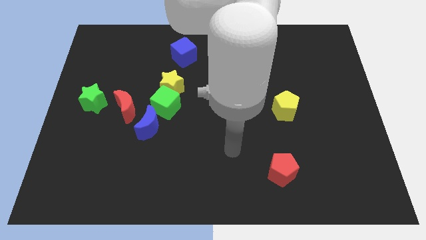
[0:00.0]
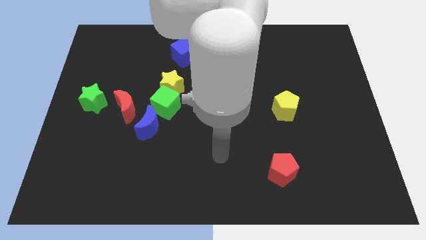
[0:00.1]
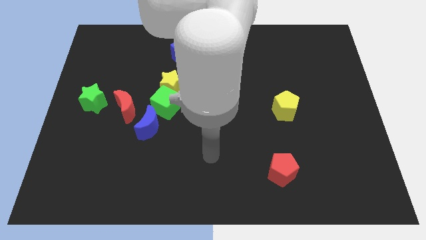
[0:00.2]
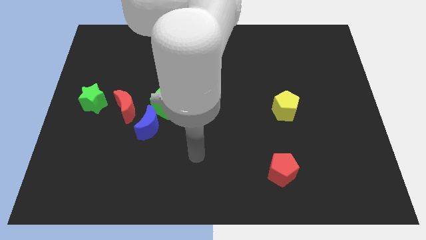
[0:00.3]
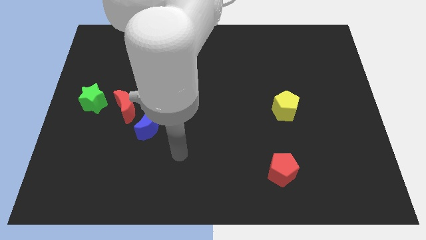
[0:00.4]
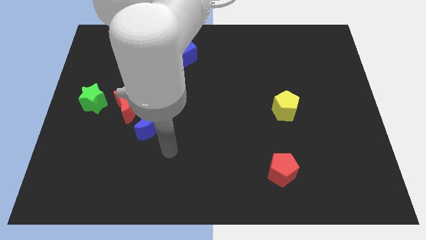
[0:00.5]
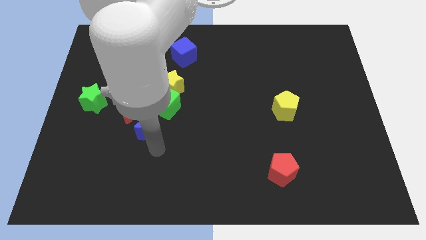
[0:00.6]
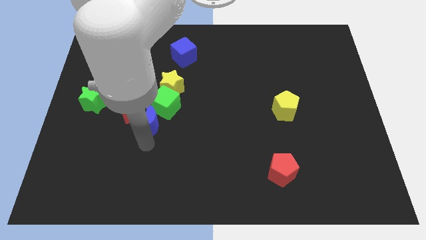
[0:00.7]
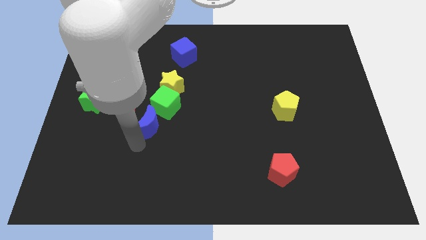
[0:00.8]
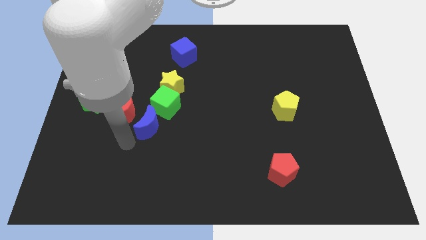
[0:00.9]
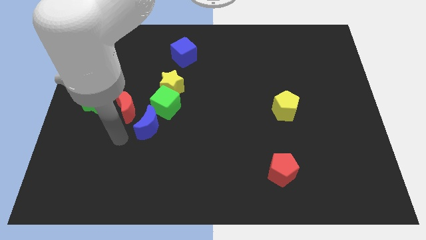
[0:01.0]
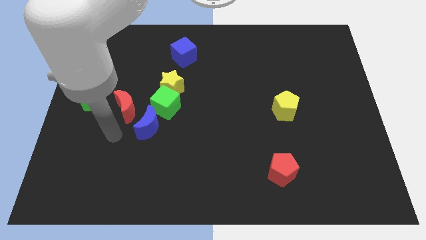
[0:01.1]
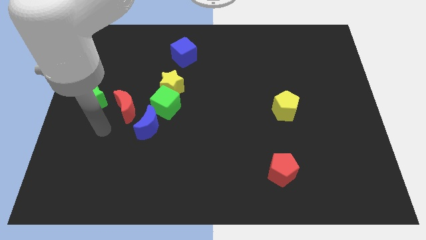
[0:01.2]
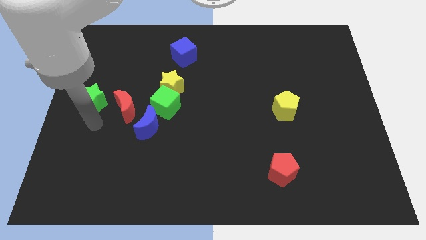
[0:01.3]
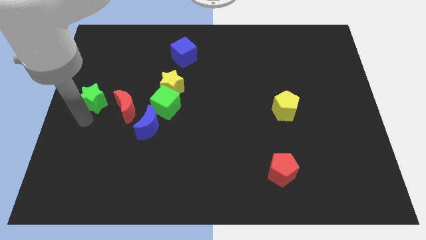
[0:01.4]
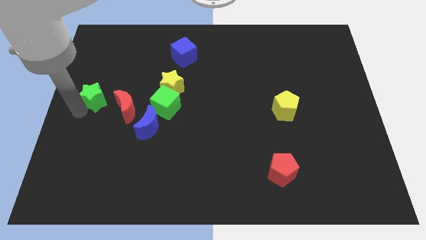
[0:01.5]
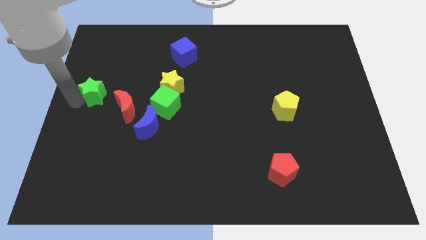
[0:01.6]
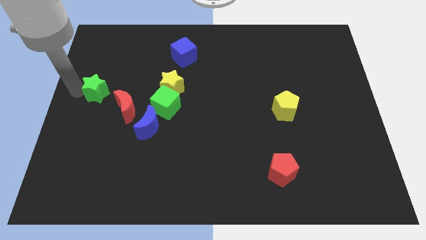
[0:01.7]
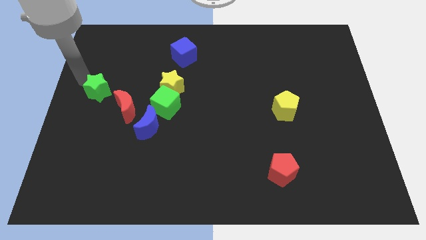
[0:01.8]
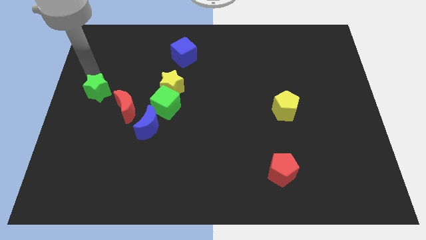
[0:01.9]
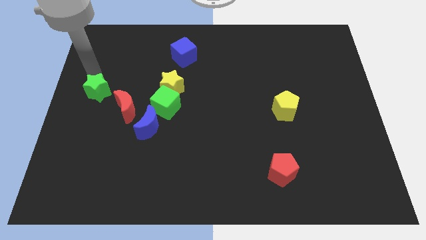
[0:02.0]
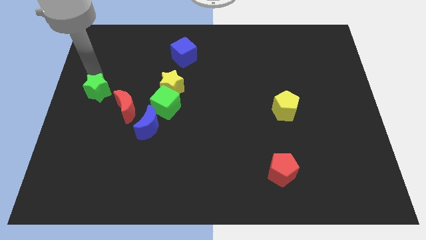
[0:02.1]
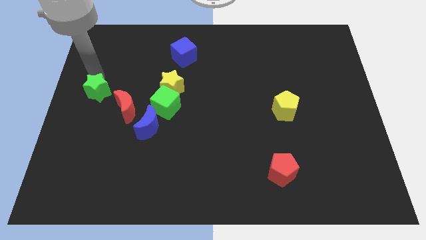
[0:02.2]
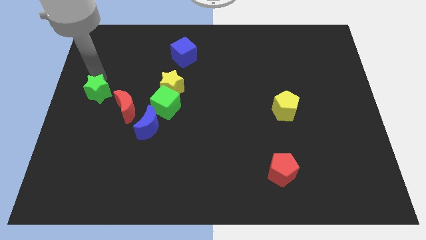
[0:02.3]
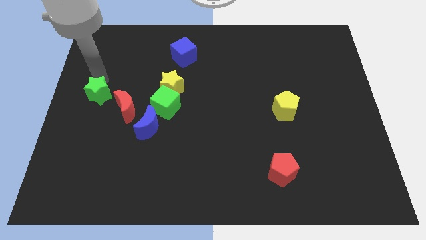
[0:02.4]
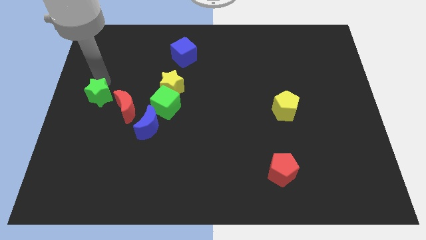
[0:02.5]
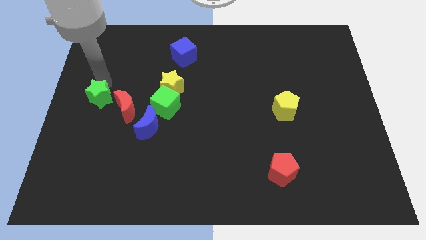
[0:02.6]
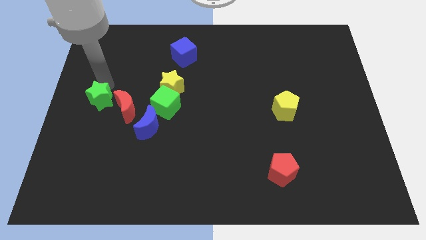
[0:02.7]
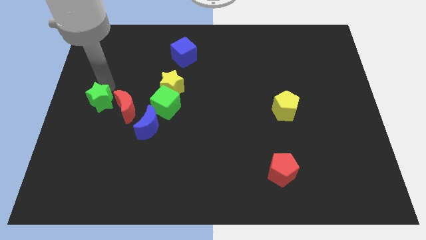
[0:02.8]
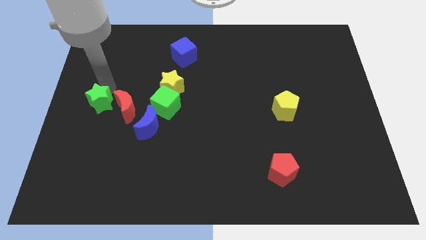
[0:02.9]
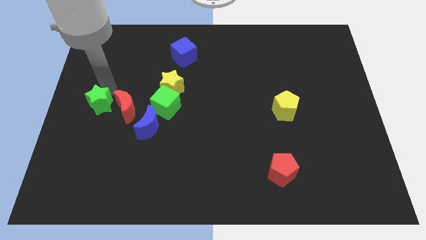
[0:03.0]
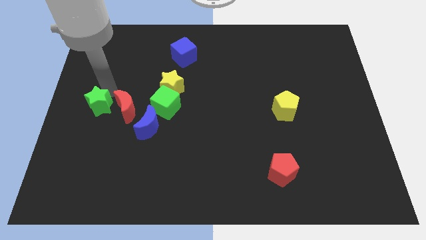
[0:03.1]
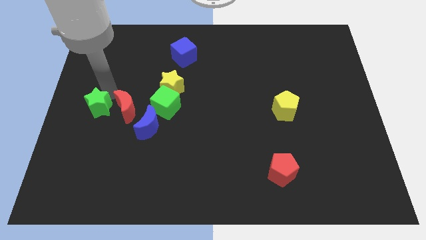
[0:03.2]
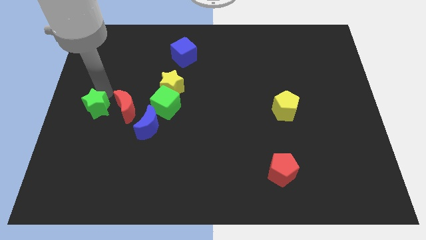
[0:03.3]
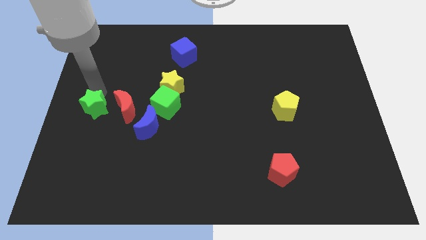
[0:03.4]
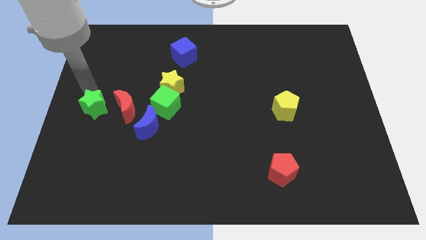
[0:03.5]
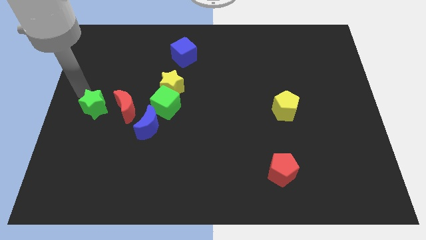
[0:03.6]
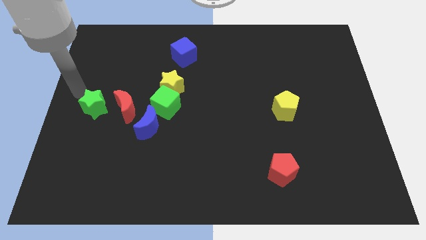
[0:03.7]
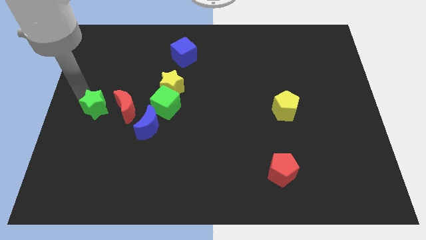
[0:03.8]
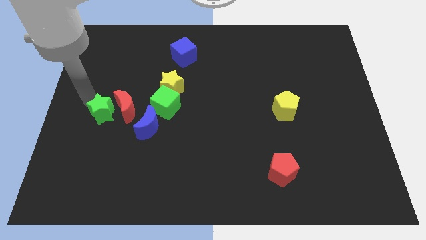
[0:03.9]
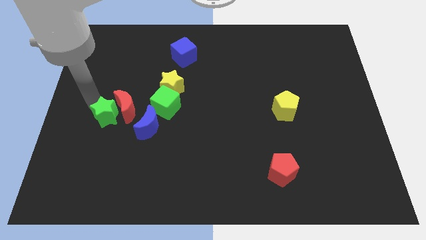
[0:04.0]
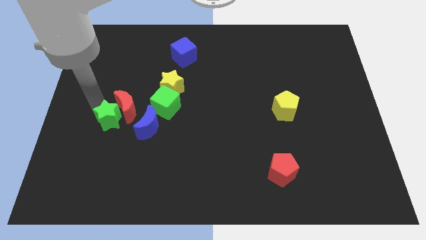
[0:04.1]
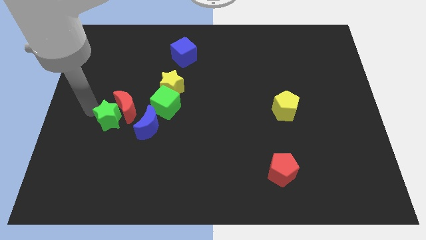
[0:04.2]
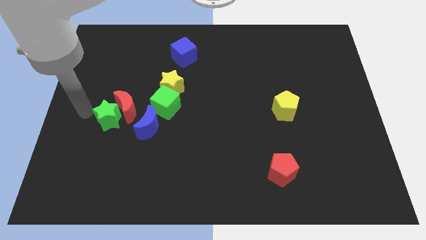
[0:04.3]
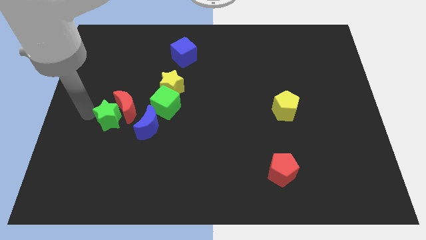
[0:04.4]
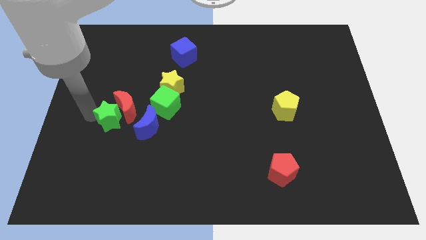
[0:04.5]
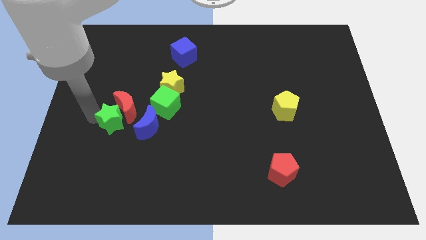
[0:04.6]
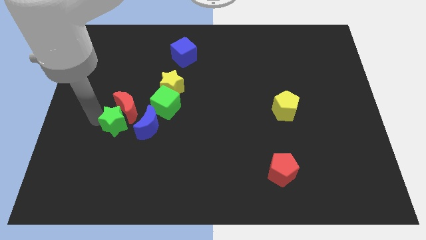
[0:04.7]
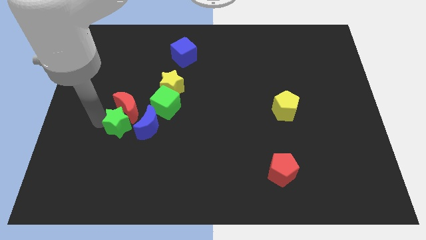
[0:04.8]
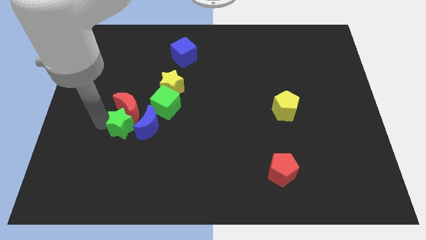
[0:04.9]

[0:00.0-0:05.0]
put the green star towards the blue moon

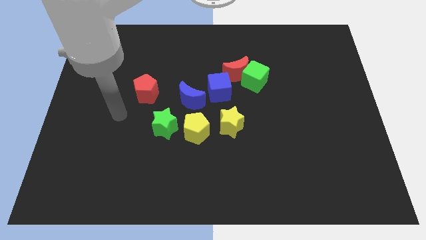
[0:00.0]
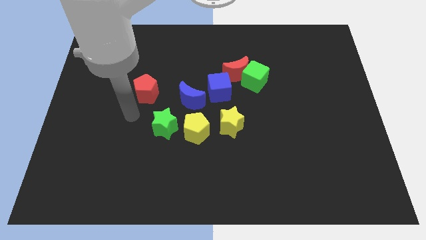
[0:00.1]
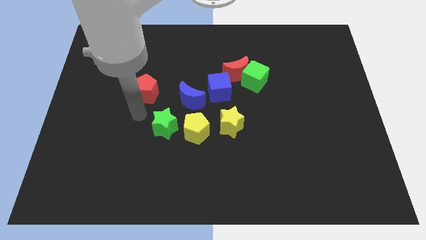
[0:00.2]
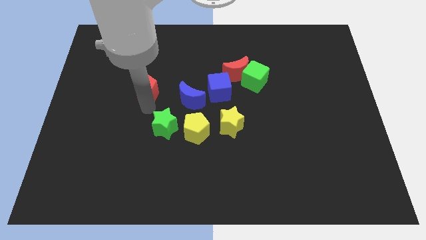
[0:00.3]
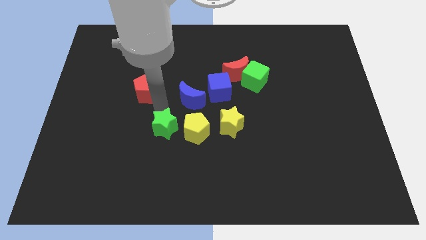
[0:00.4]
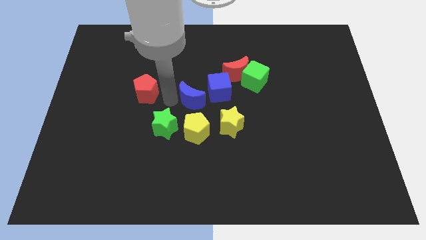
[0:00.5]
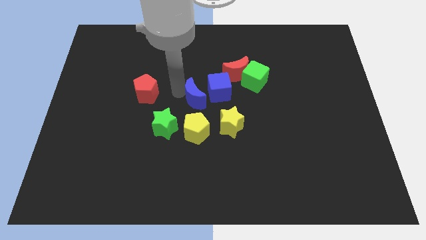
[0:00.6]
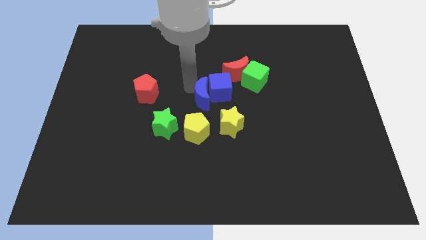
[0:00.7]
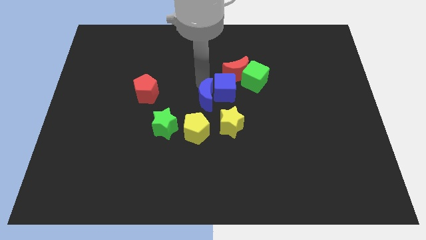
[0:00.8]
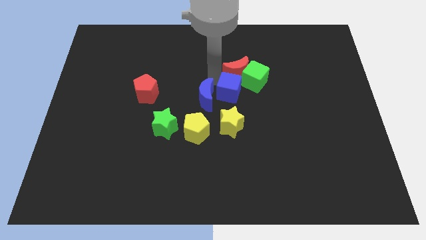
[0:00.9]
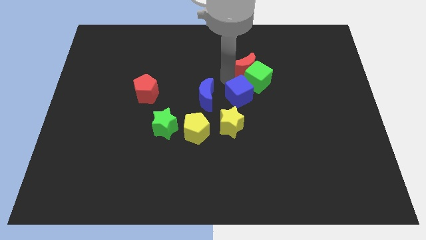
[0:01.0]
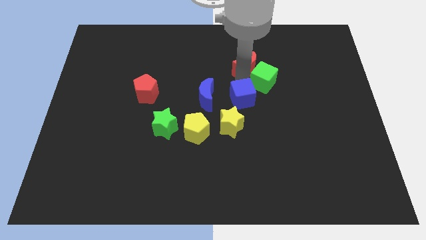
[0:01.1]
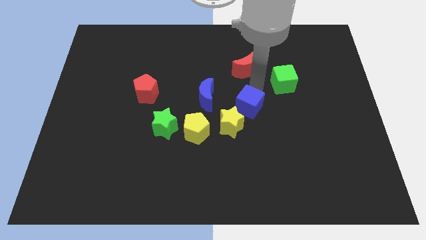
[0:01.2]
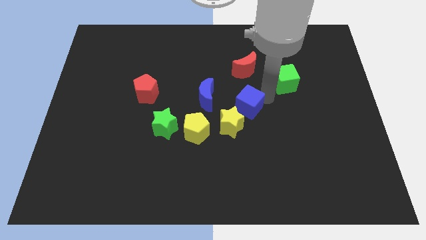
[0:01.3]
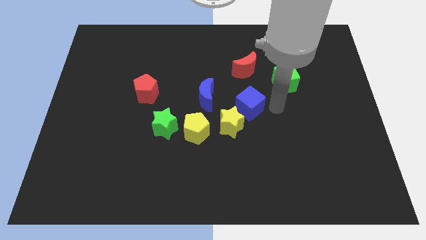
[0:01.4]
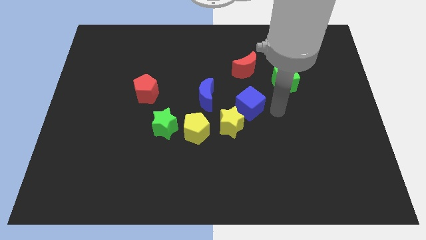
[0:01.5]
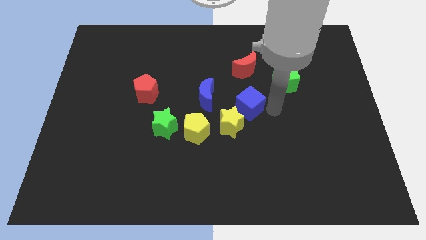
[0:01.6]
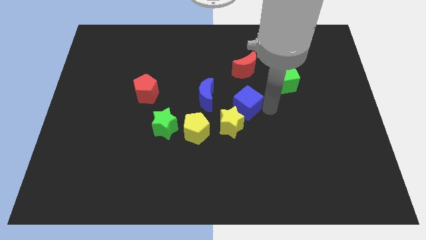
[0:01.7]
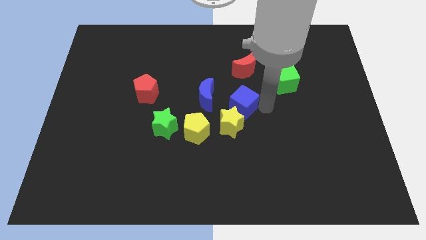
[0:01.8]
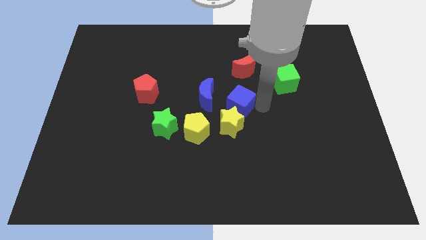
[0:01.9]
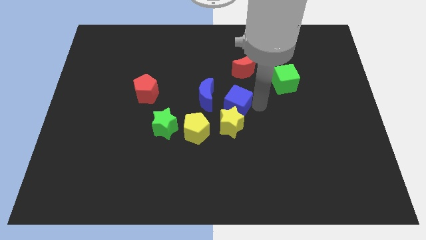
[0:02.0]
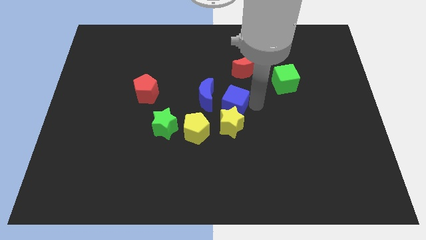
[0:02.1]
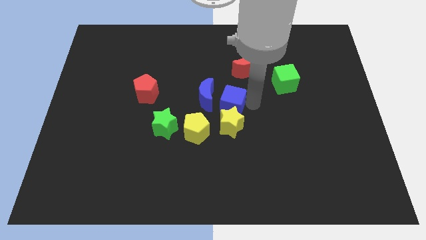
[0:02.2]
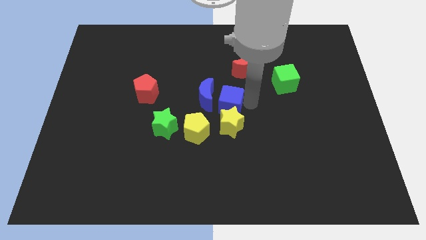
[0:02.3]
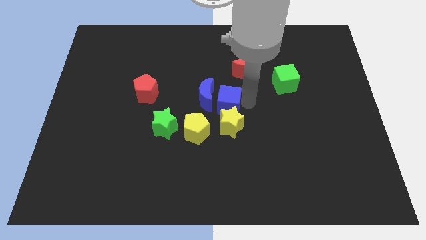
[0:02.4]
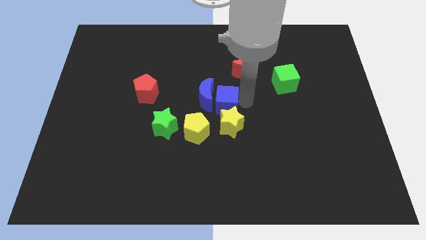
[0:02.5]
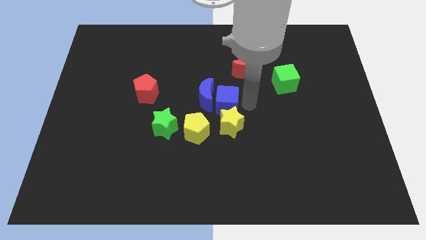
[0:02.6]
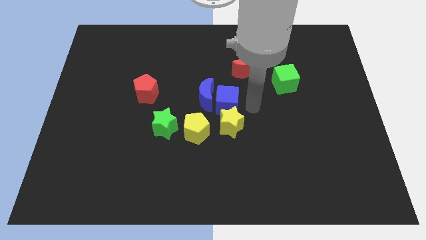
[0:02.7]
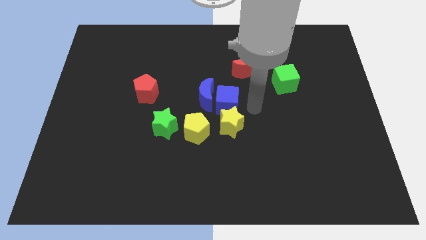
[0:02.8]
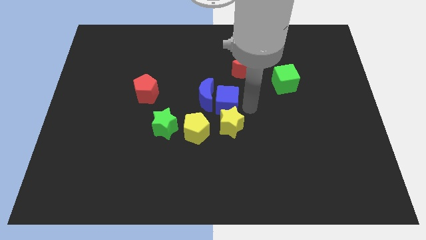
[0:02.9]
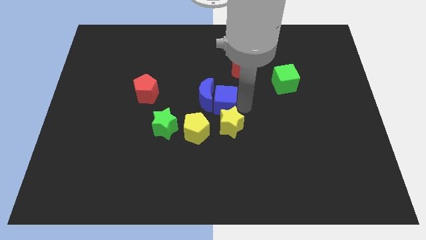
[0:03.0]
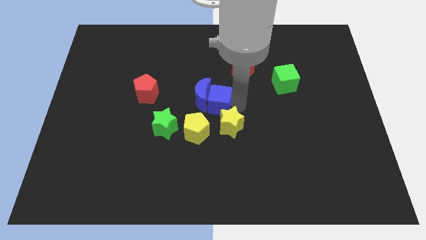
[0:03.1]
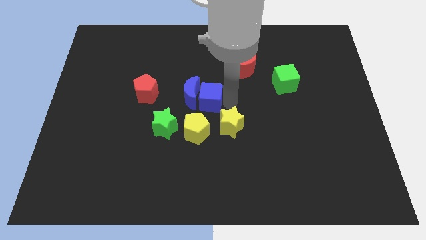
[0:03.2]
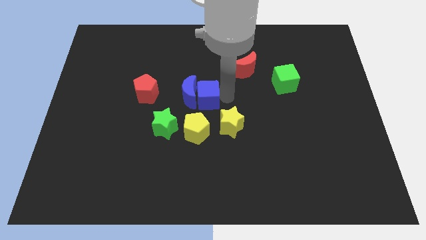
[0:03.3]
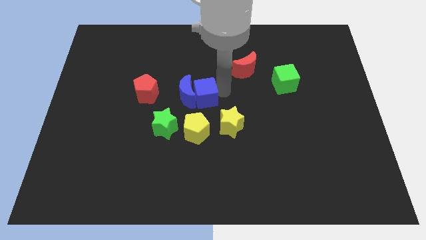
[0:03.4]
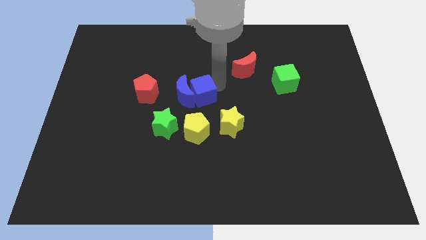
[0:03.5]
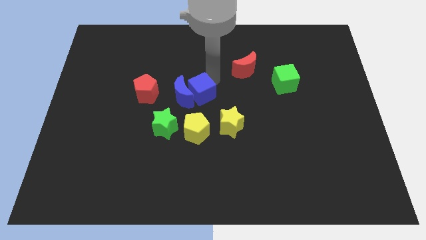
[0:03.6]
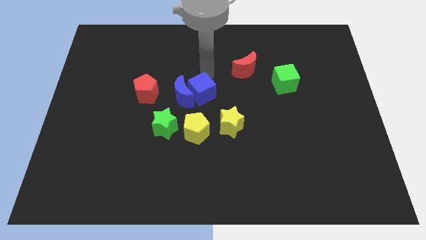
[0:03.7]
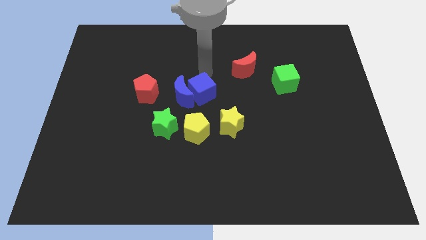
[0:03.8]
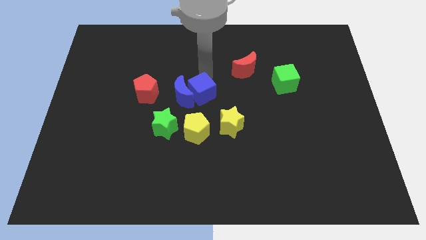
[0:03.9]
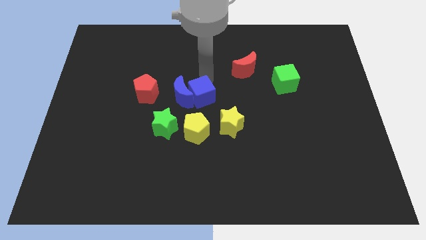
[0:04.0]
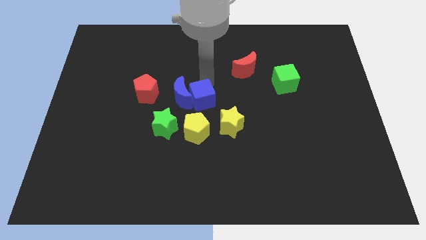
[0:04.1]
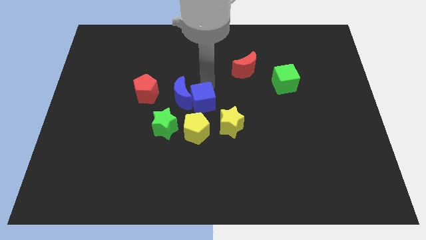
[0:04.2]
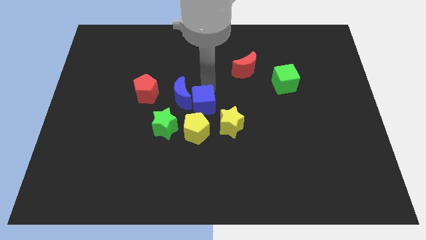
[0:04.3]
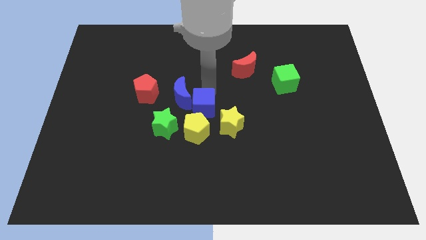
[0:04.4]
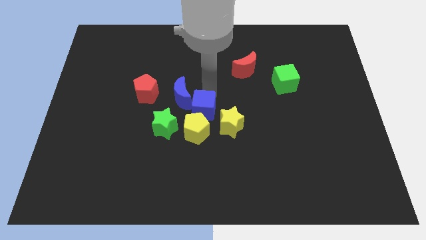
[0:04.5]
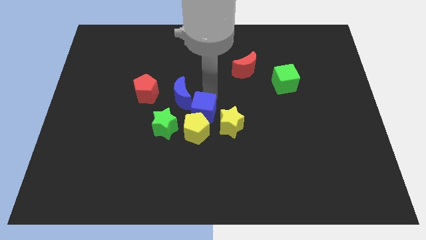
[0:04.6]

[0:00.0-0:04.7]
push the blue cube next to the yellow pentagon
